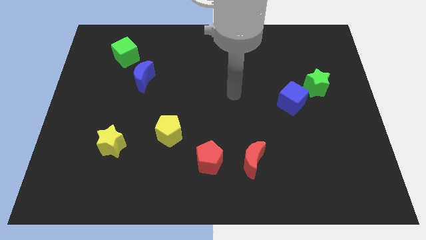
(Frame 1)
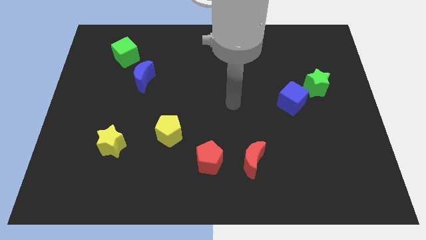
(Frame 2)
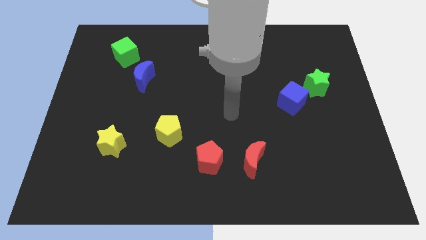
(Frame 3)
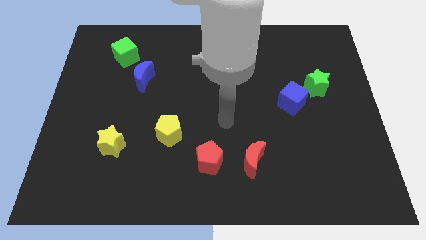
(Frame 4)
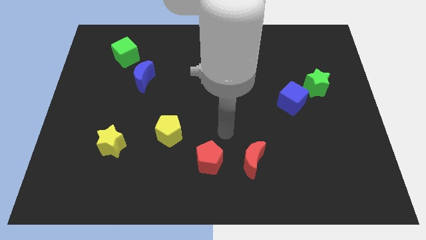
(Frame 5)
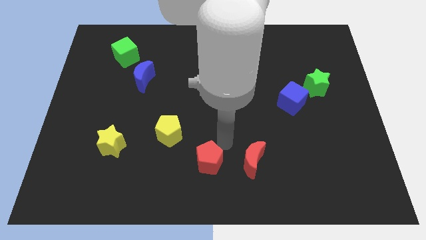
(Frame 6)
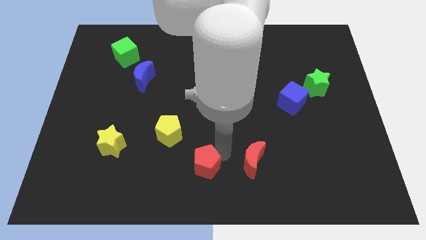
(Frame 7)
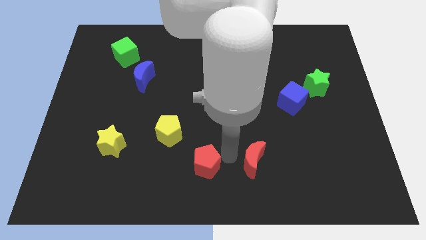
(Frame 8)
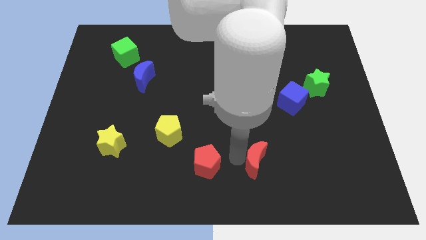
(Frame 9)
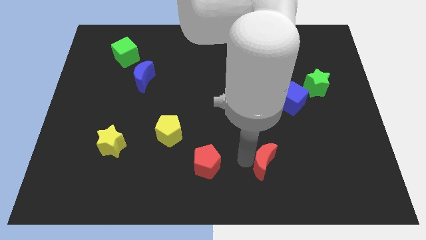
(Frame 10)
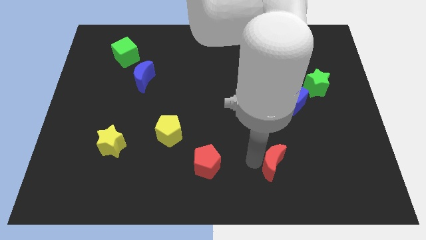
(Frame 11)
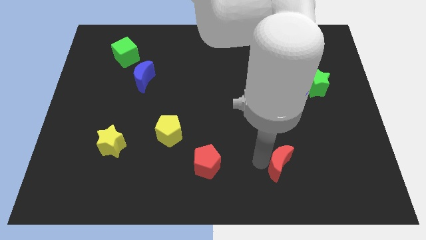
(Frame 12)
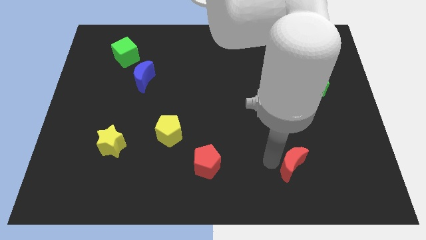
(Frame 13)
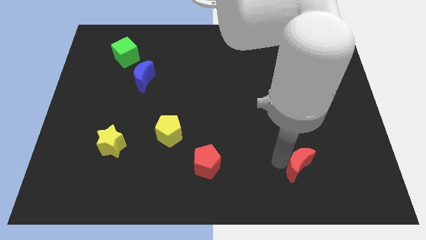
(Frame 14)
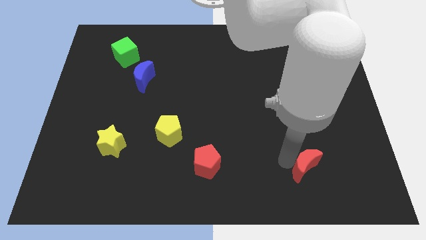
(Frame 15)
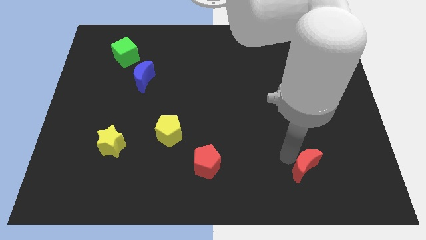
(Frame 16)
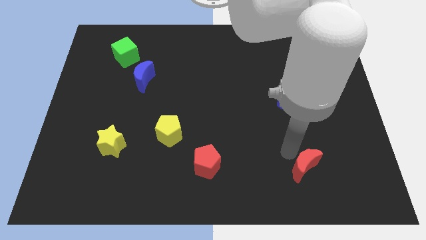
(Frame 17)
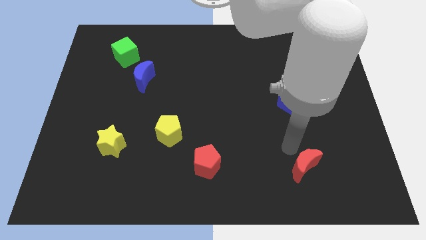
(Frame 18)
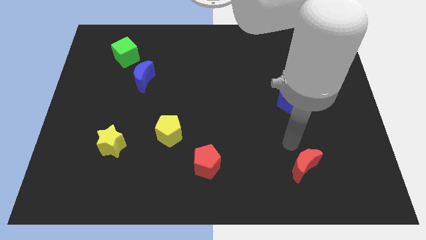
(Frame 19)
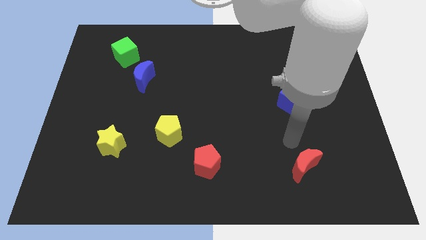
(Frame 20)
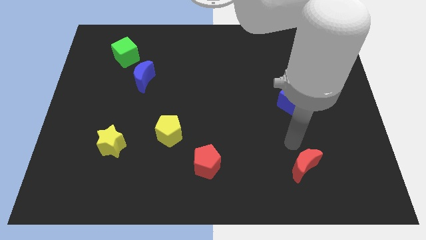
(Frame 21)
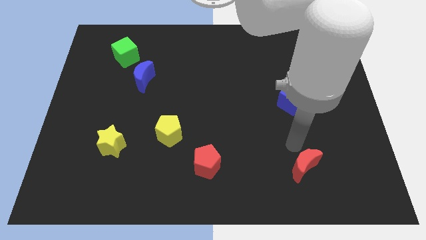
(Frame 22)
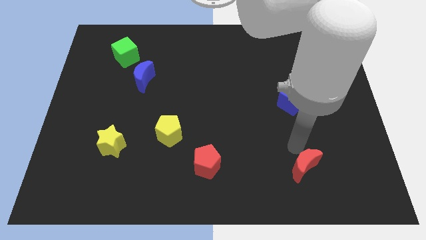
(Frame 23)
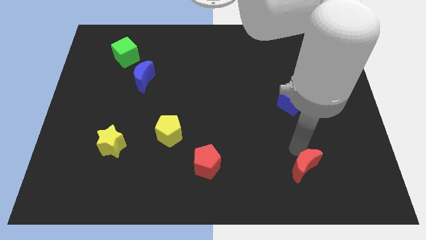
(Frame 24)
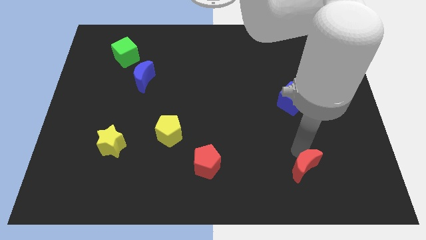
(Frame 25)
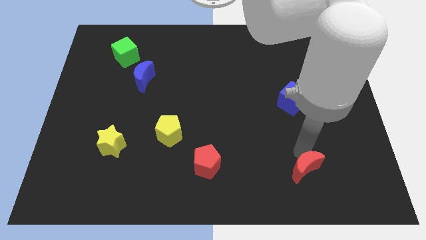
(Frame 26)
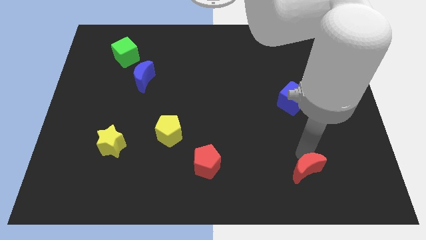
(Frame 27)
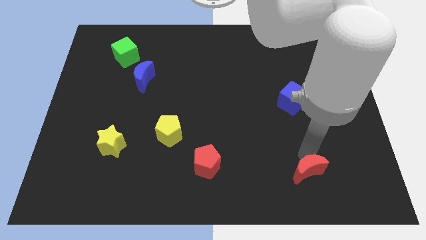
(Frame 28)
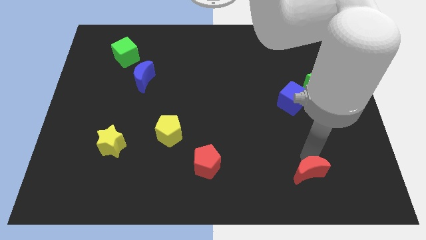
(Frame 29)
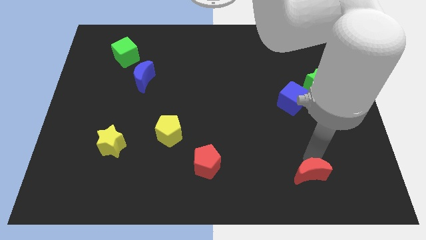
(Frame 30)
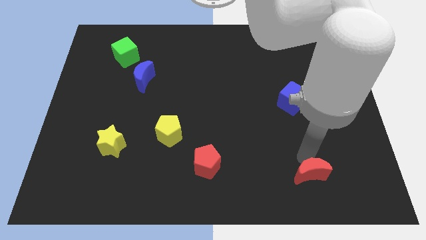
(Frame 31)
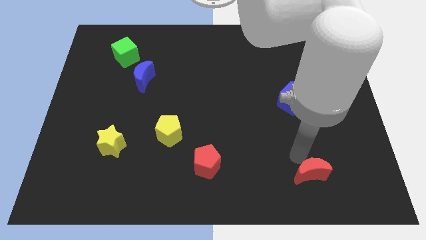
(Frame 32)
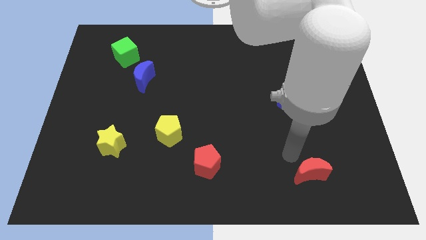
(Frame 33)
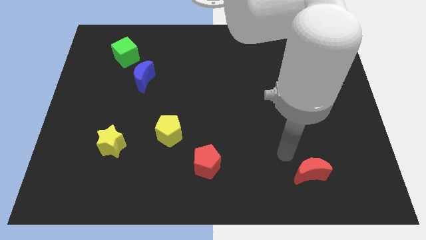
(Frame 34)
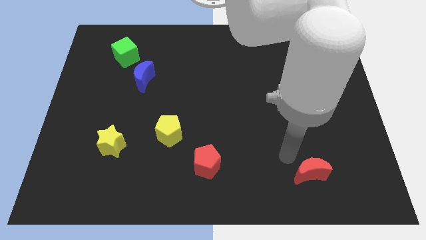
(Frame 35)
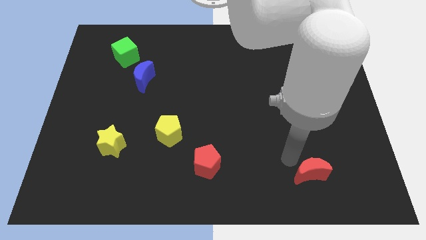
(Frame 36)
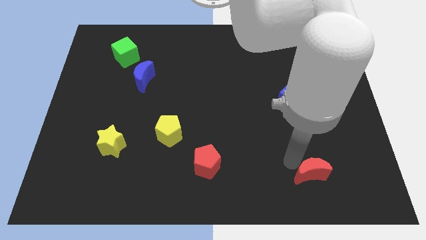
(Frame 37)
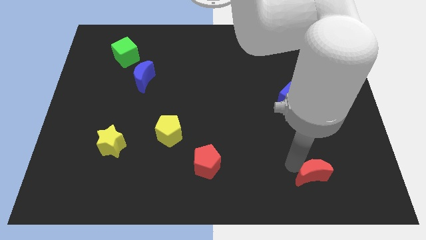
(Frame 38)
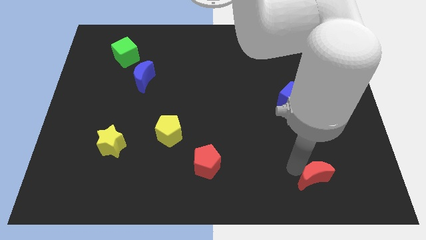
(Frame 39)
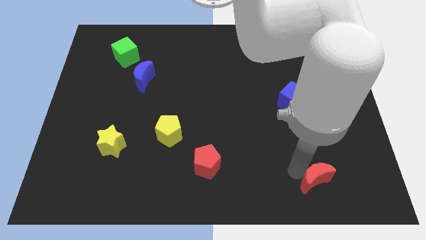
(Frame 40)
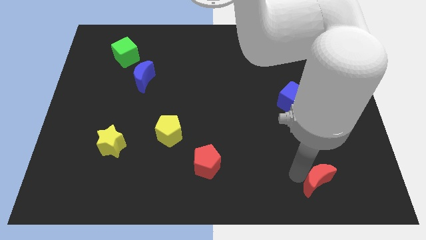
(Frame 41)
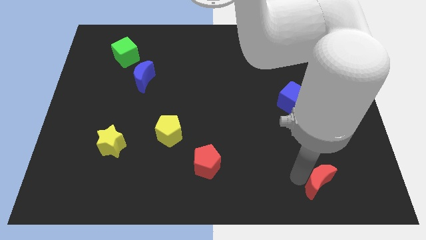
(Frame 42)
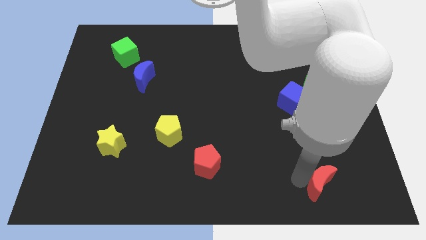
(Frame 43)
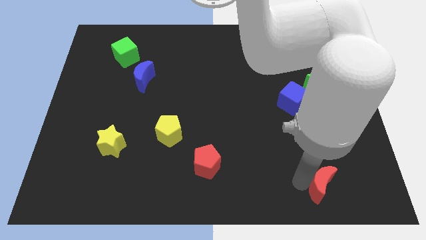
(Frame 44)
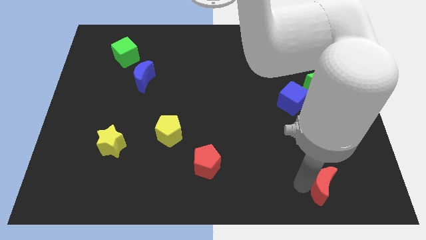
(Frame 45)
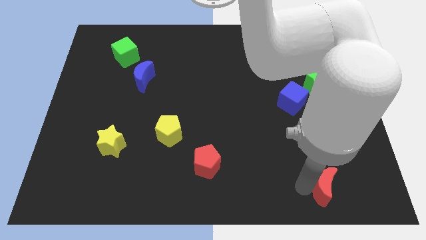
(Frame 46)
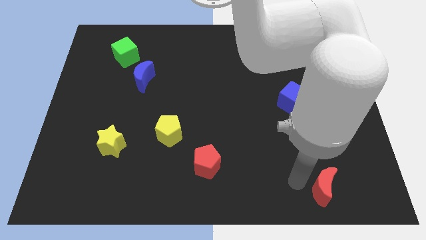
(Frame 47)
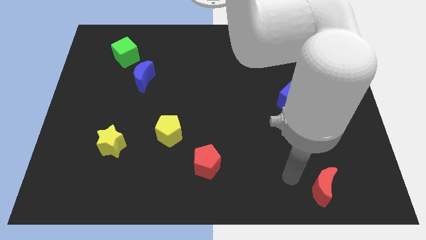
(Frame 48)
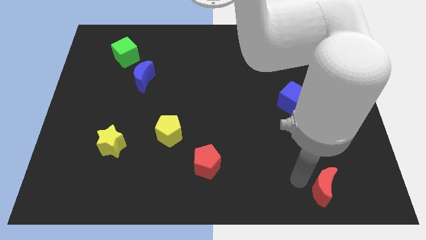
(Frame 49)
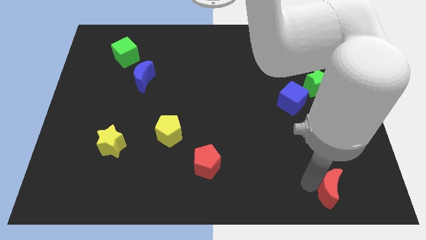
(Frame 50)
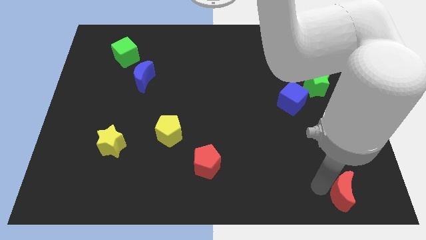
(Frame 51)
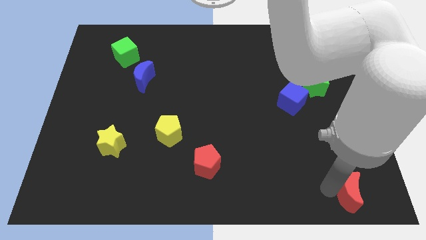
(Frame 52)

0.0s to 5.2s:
move the red moon to the lower right corner

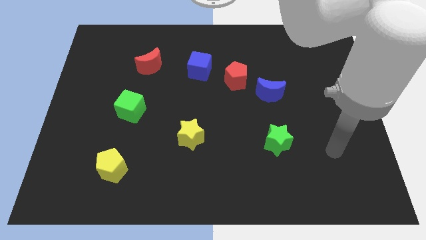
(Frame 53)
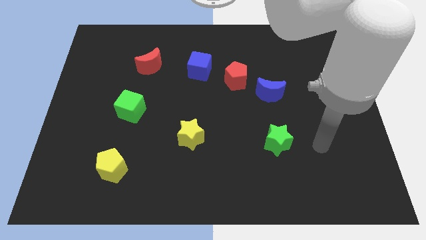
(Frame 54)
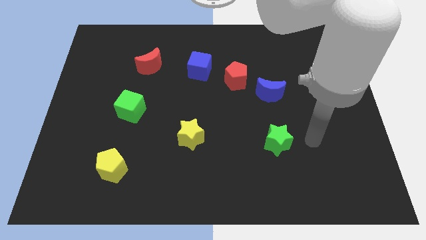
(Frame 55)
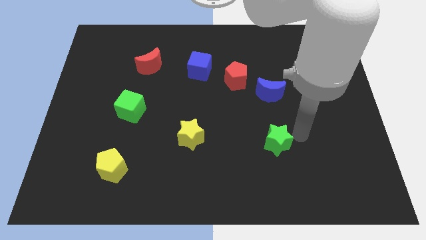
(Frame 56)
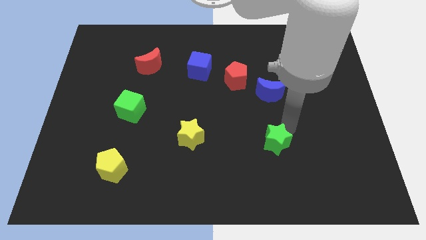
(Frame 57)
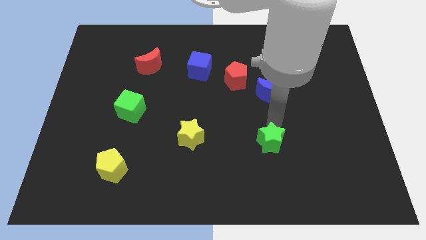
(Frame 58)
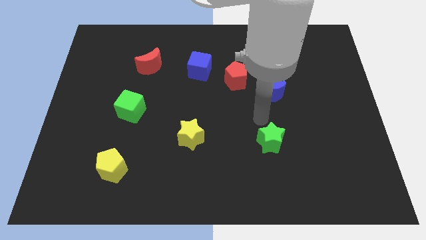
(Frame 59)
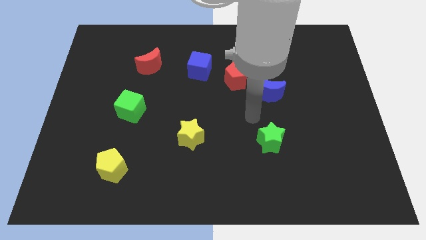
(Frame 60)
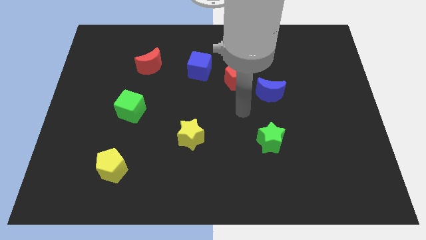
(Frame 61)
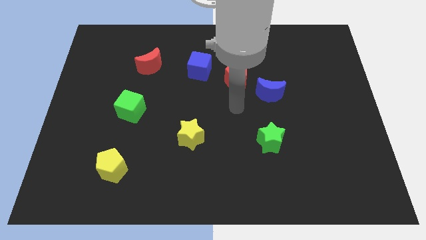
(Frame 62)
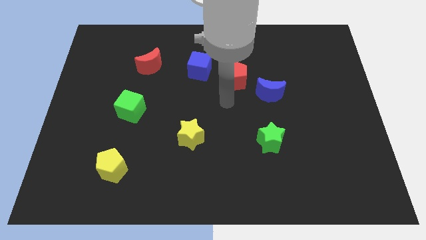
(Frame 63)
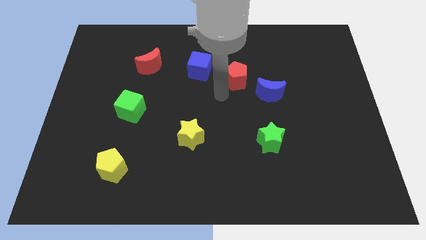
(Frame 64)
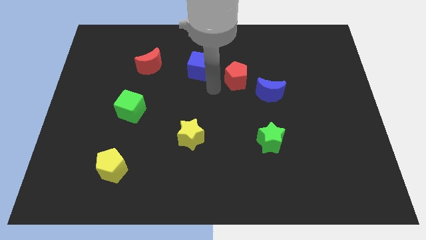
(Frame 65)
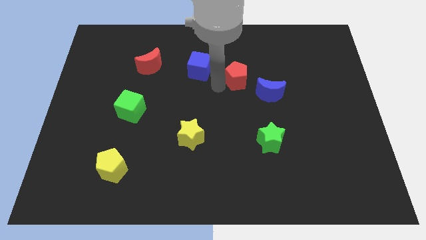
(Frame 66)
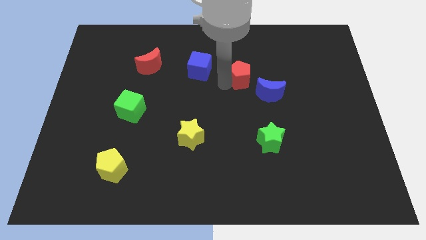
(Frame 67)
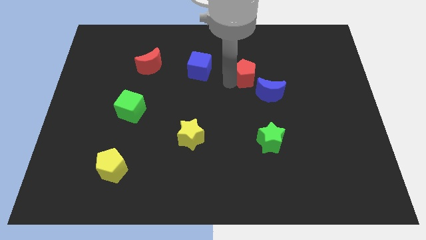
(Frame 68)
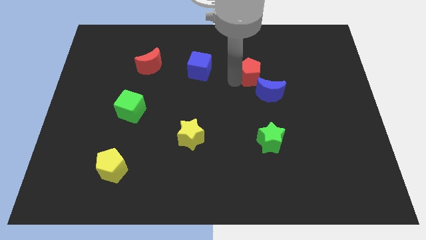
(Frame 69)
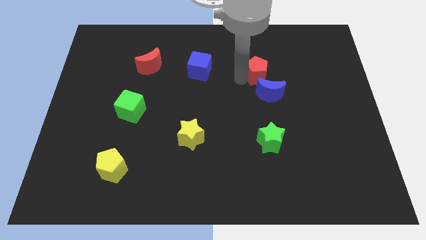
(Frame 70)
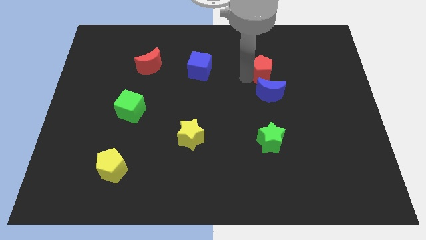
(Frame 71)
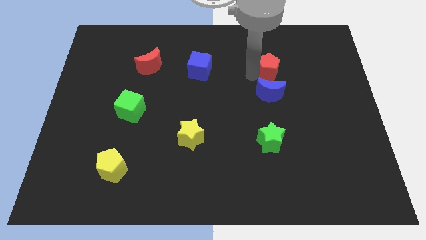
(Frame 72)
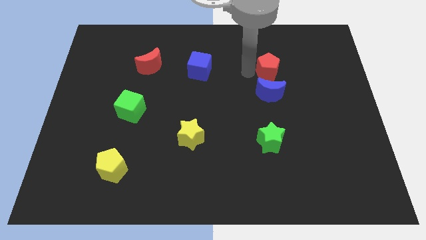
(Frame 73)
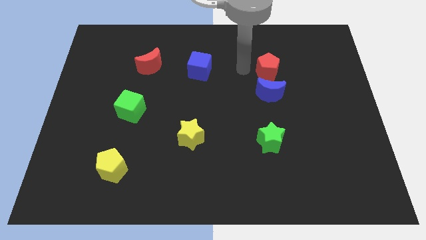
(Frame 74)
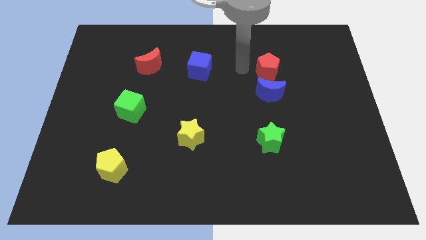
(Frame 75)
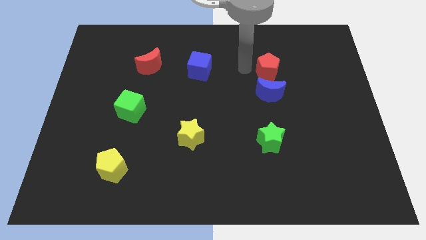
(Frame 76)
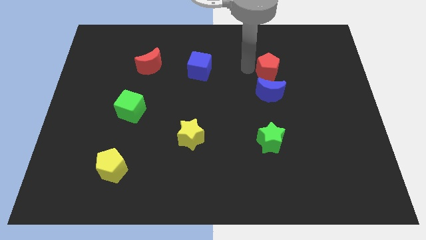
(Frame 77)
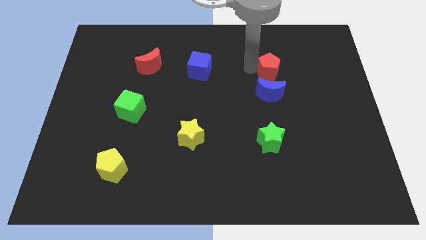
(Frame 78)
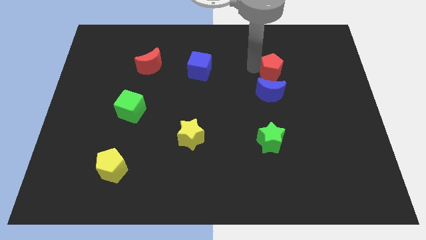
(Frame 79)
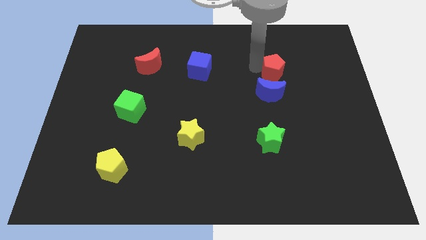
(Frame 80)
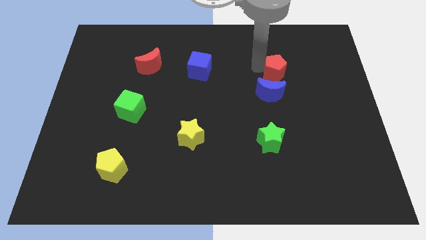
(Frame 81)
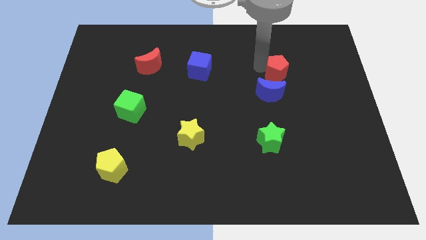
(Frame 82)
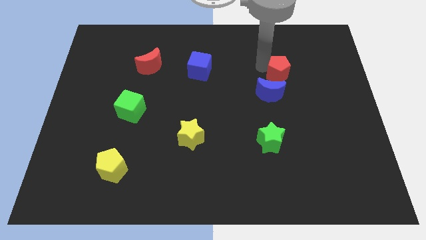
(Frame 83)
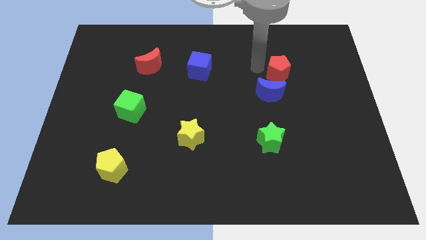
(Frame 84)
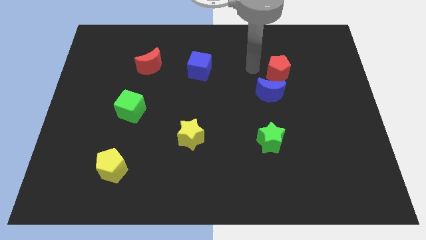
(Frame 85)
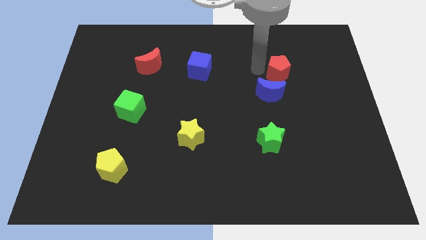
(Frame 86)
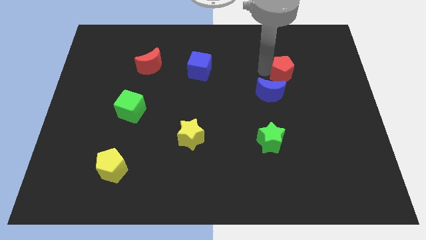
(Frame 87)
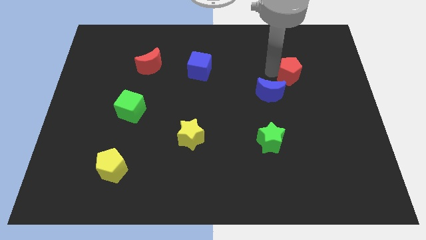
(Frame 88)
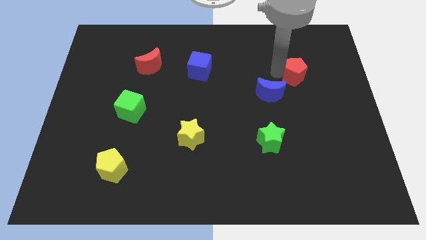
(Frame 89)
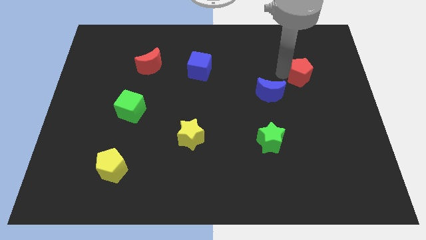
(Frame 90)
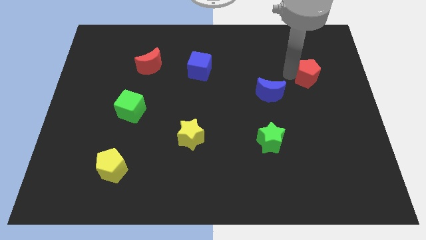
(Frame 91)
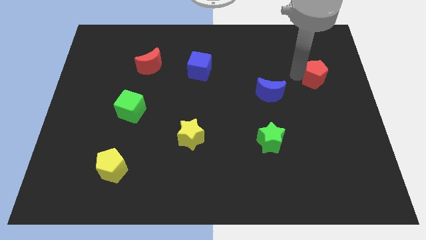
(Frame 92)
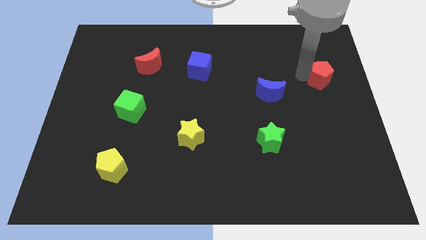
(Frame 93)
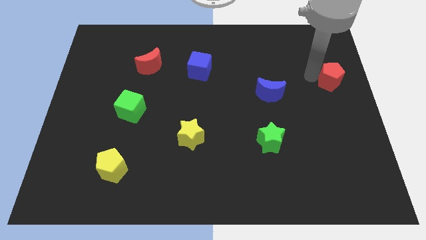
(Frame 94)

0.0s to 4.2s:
move the red pentagon to the right side
